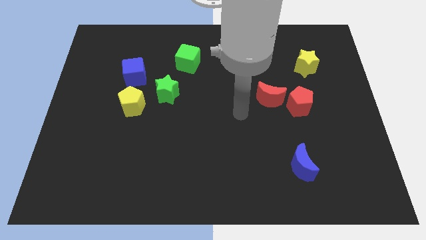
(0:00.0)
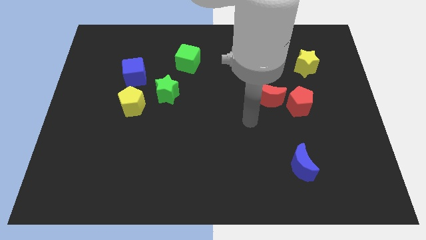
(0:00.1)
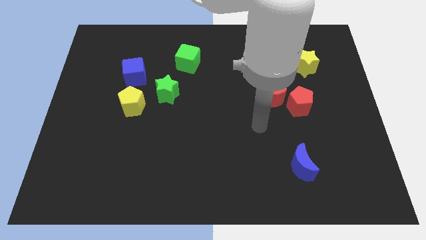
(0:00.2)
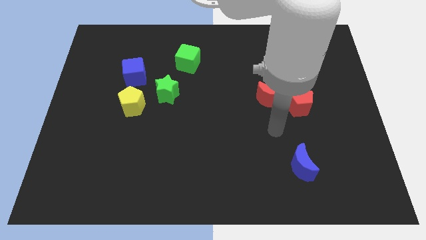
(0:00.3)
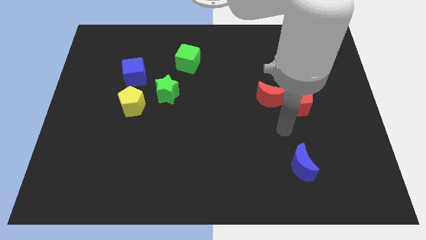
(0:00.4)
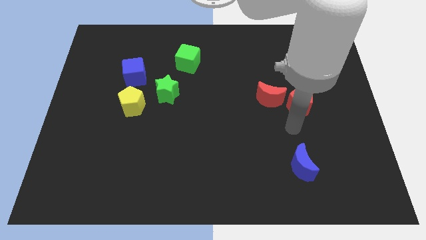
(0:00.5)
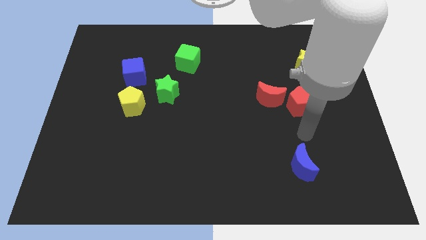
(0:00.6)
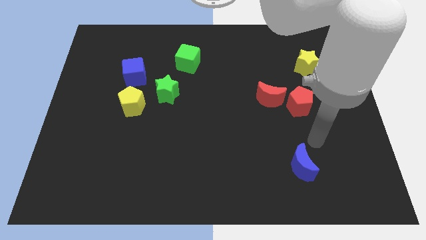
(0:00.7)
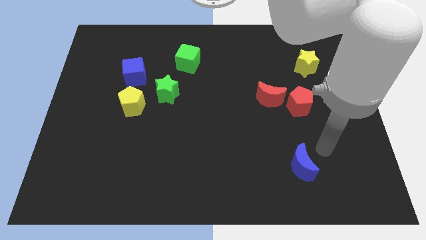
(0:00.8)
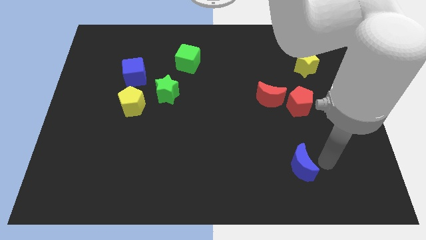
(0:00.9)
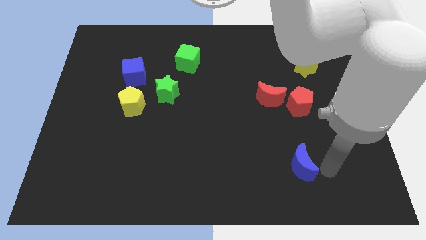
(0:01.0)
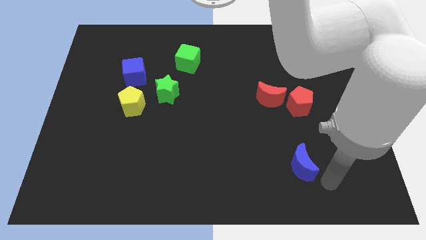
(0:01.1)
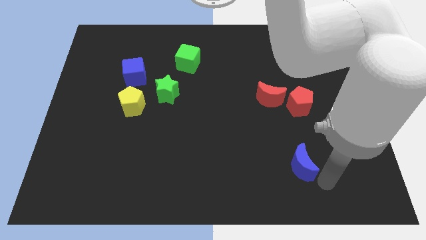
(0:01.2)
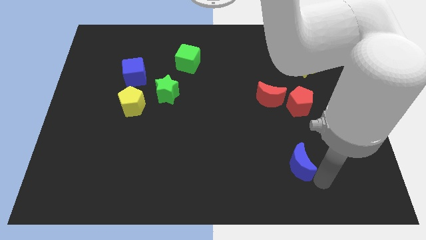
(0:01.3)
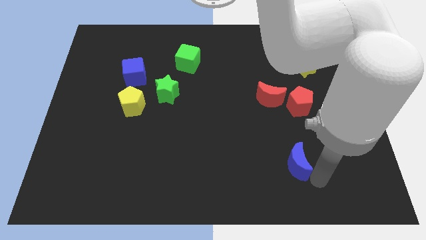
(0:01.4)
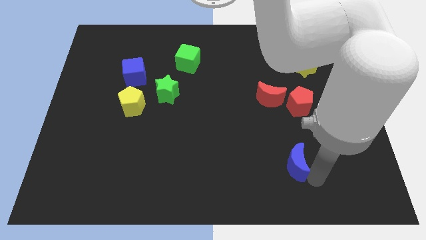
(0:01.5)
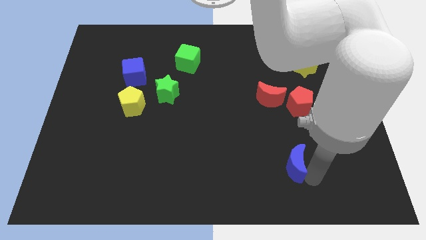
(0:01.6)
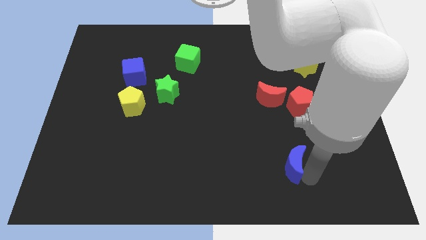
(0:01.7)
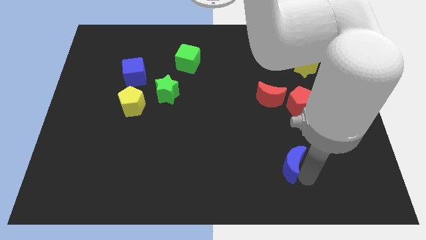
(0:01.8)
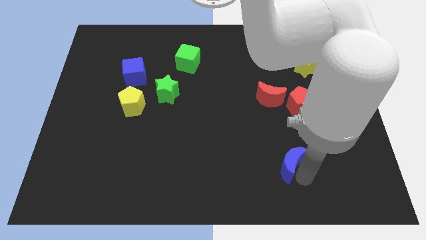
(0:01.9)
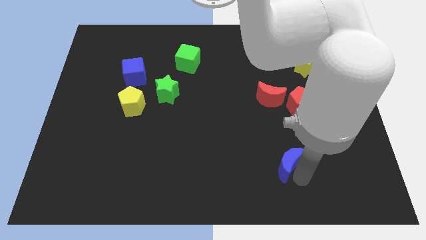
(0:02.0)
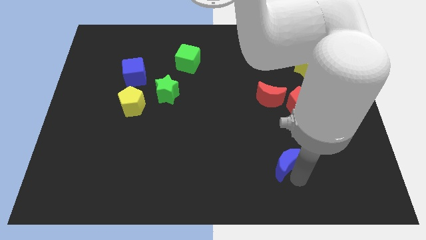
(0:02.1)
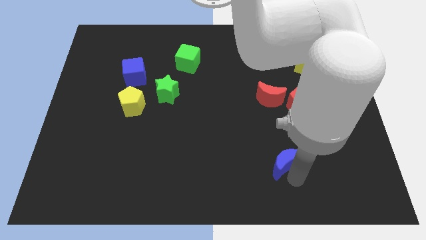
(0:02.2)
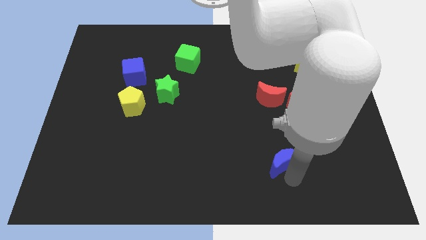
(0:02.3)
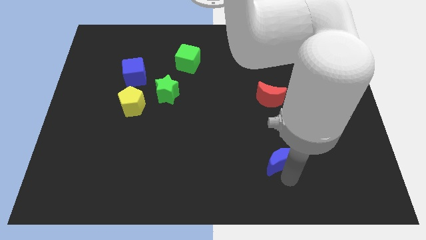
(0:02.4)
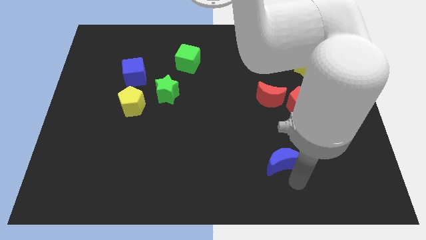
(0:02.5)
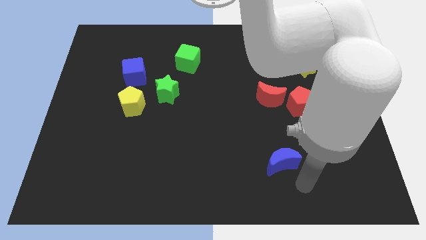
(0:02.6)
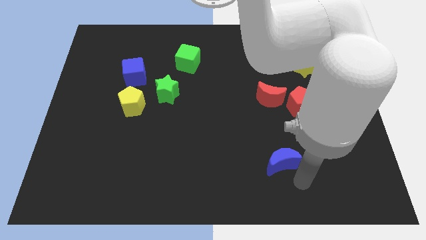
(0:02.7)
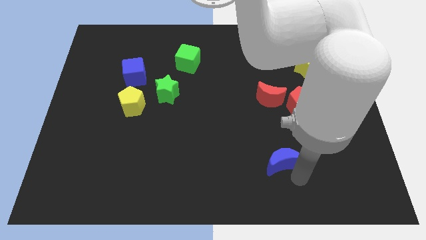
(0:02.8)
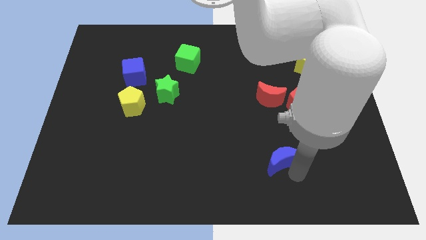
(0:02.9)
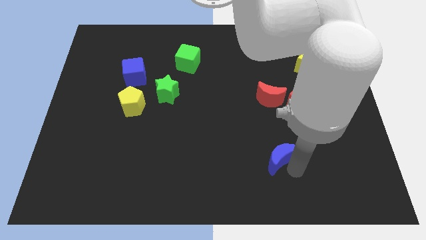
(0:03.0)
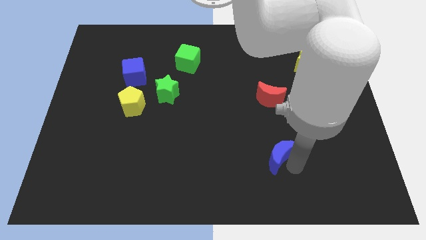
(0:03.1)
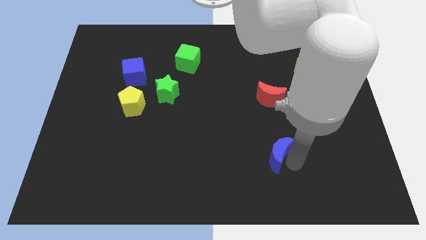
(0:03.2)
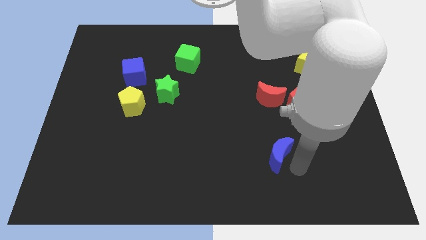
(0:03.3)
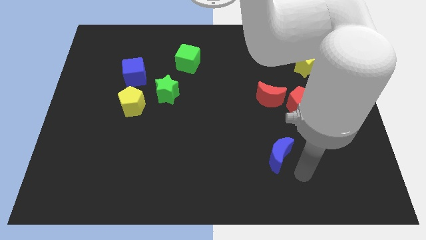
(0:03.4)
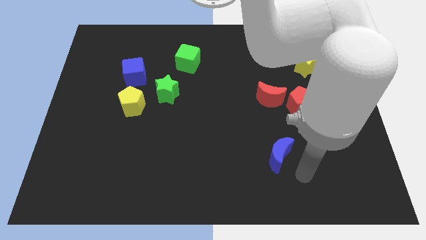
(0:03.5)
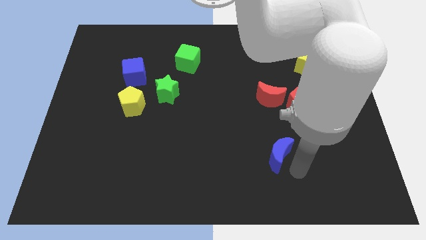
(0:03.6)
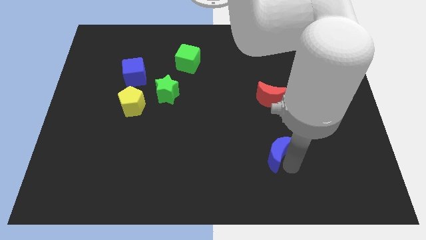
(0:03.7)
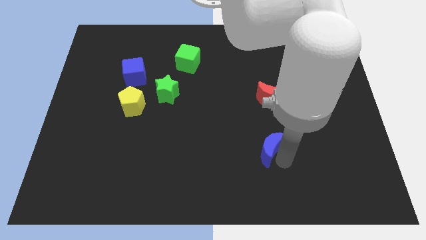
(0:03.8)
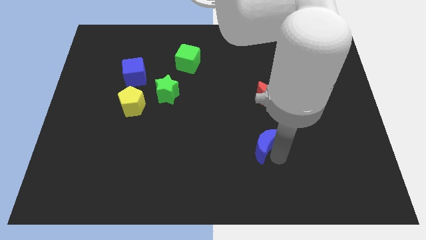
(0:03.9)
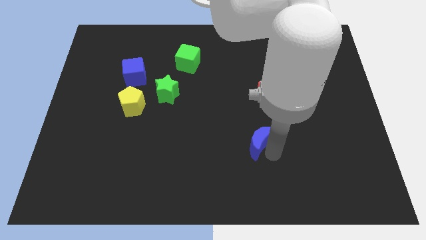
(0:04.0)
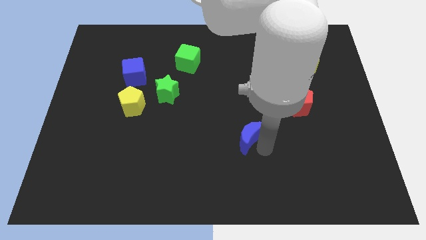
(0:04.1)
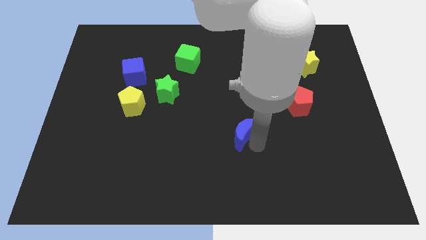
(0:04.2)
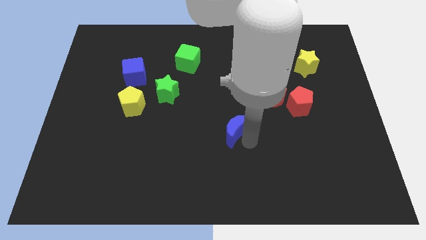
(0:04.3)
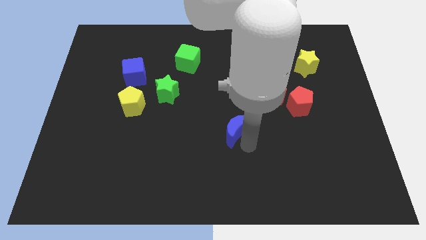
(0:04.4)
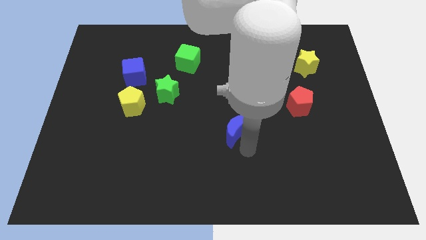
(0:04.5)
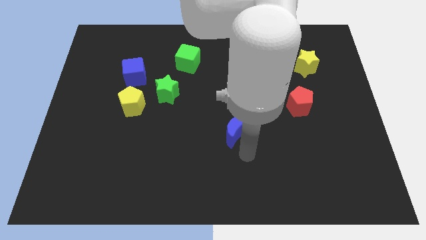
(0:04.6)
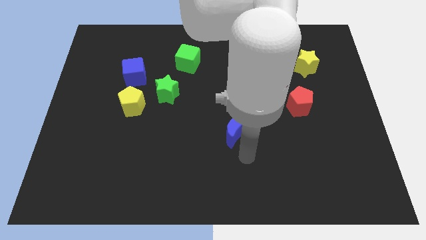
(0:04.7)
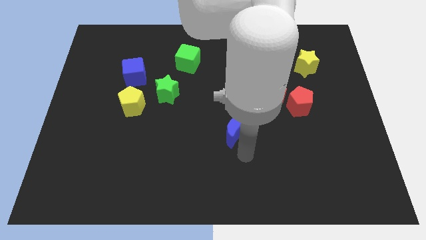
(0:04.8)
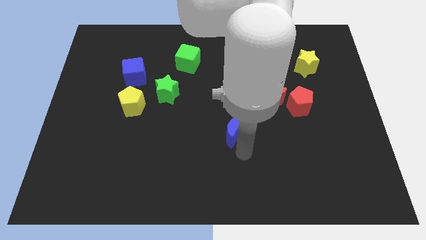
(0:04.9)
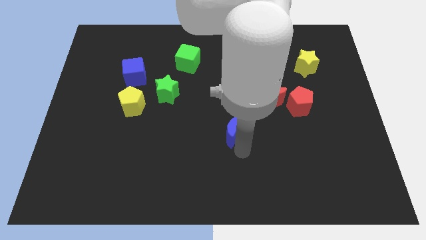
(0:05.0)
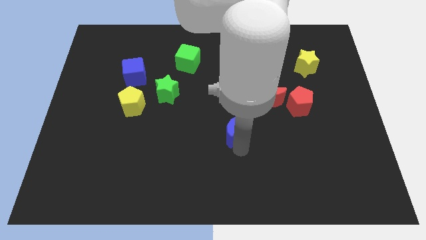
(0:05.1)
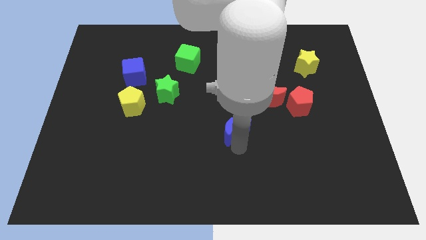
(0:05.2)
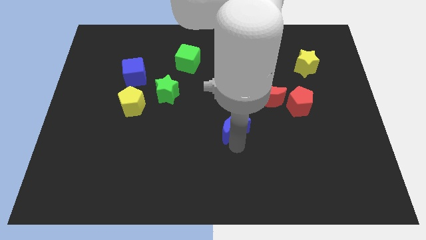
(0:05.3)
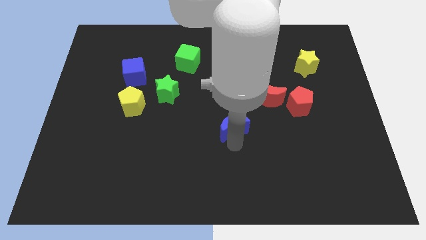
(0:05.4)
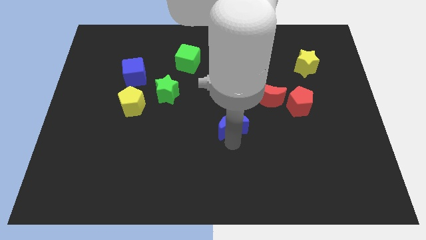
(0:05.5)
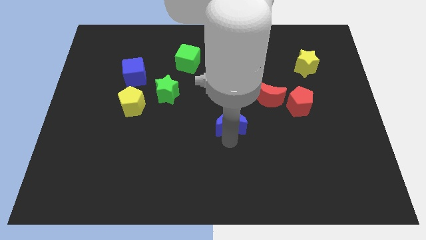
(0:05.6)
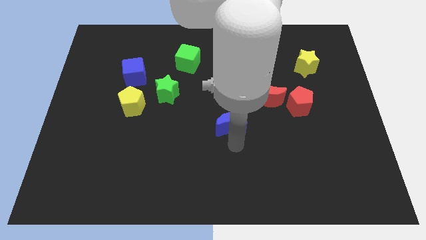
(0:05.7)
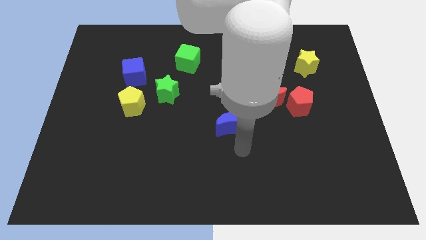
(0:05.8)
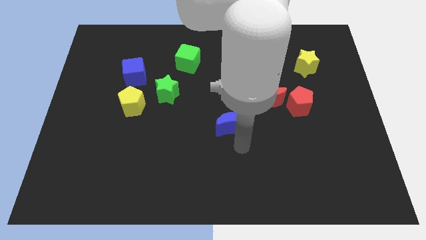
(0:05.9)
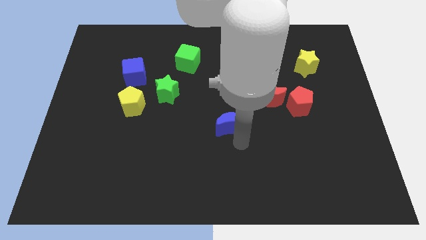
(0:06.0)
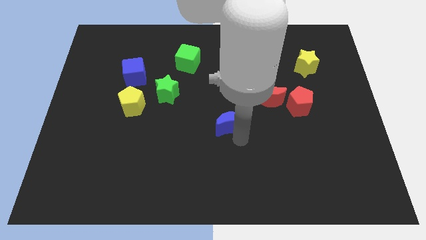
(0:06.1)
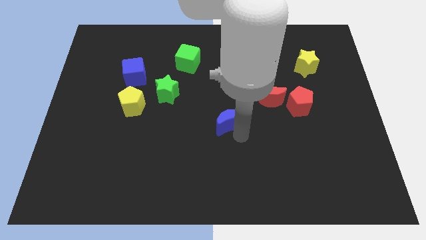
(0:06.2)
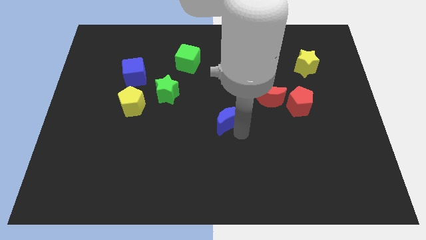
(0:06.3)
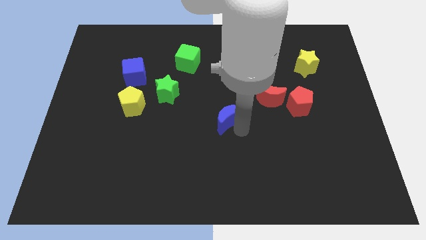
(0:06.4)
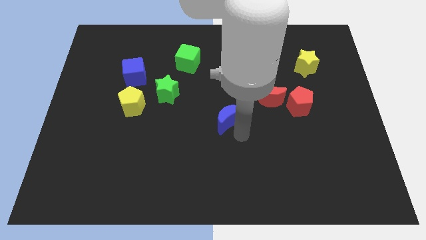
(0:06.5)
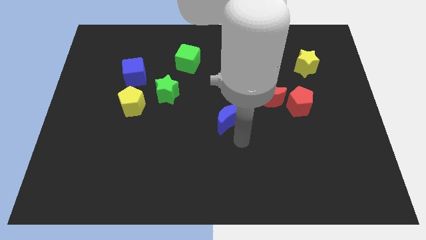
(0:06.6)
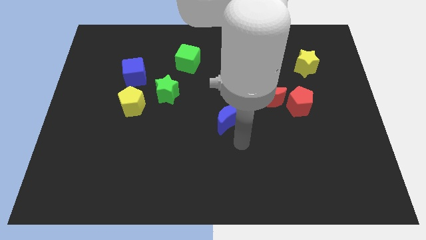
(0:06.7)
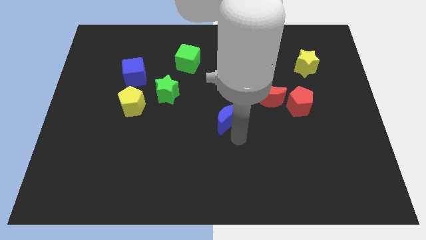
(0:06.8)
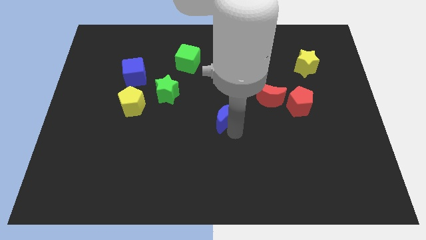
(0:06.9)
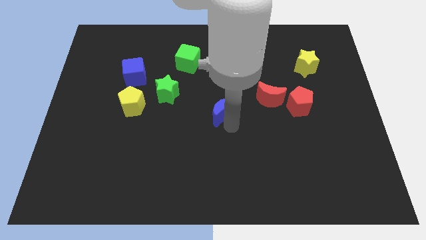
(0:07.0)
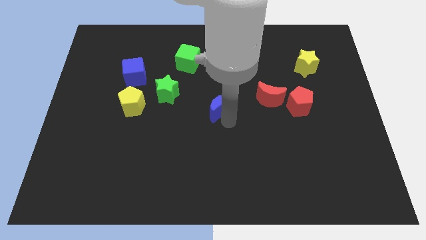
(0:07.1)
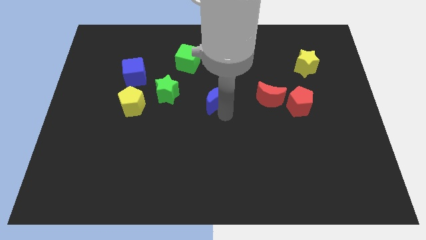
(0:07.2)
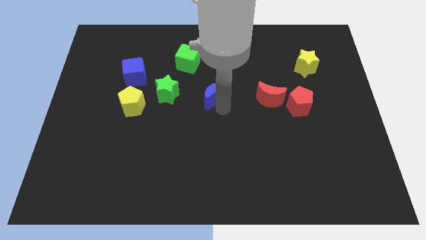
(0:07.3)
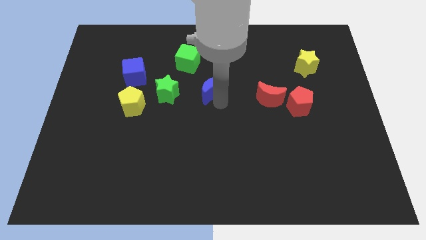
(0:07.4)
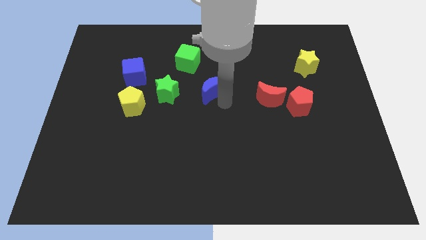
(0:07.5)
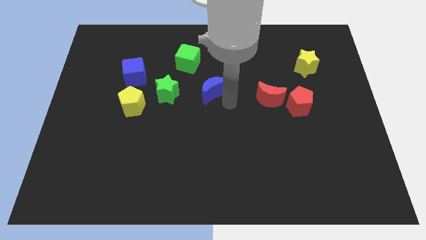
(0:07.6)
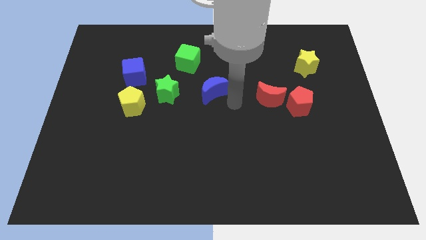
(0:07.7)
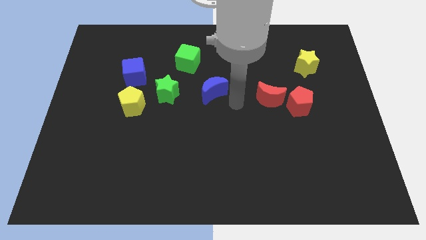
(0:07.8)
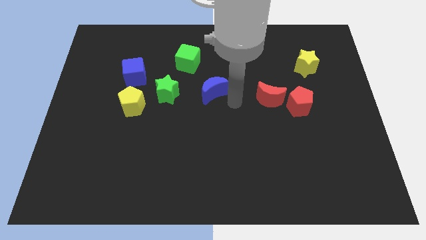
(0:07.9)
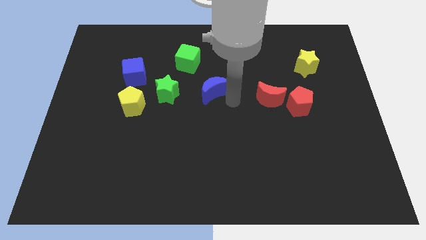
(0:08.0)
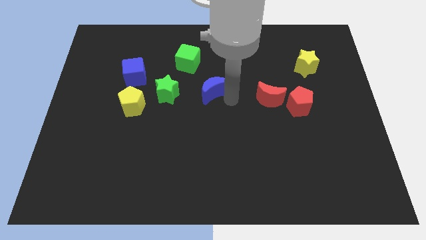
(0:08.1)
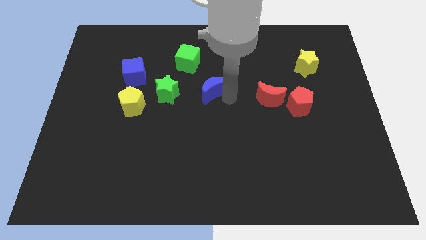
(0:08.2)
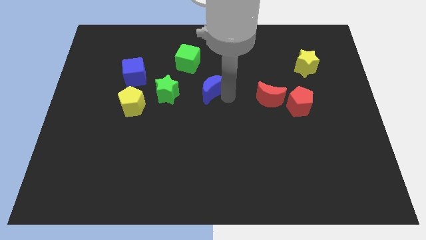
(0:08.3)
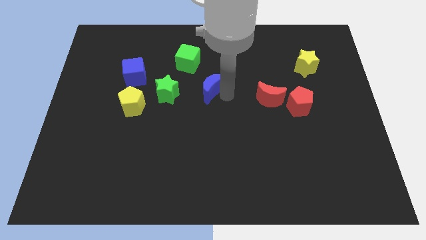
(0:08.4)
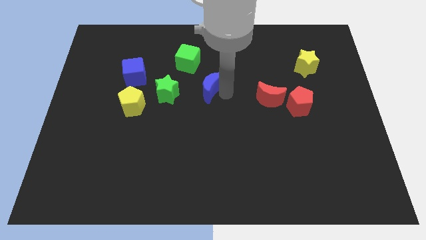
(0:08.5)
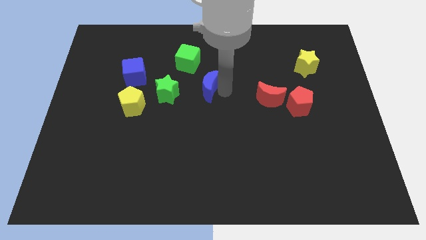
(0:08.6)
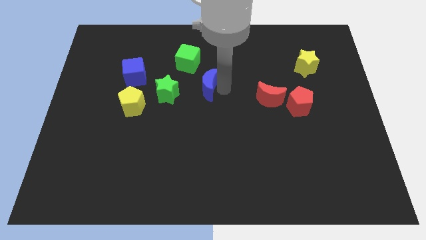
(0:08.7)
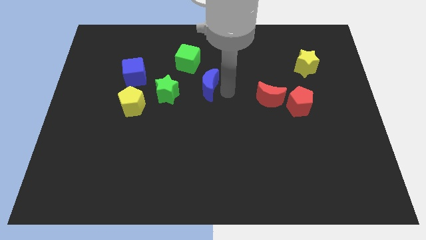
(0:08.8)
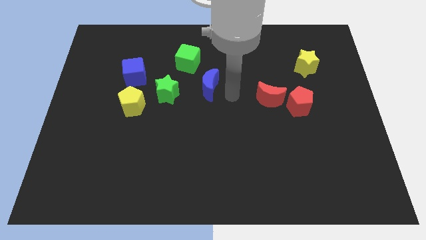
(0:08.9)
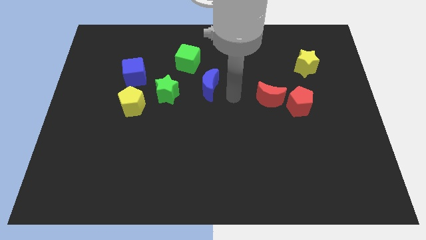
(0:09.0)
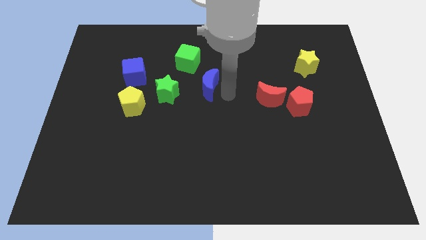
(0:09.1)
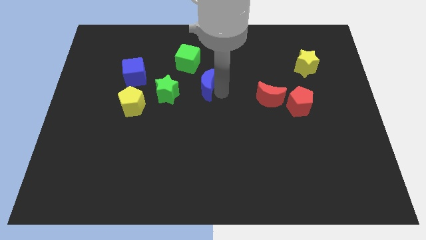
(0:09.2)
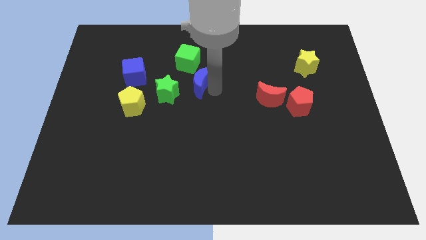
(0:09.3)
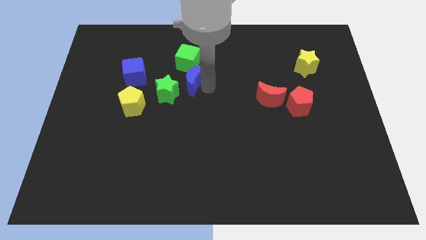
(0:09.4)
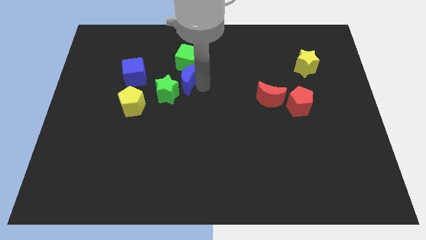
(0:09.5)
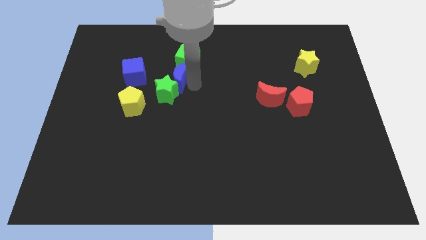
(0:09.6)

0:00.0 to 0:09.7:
push the blue moon above the green star
